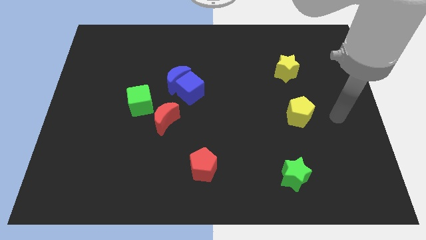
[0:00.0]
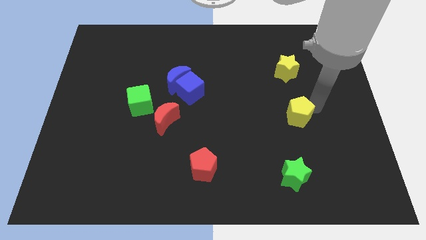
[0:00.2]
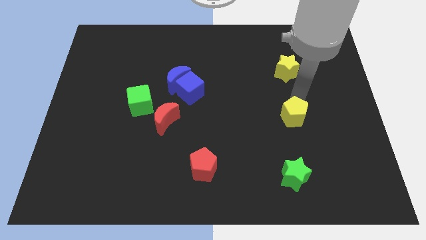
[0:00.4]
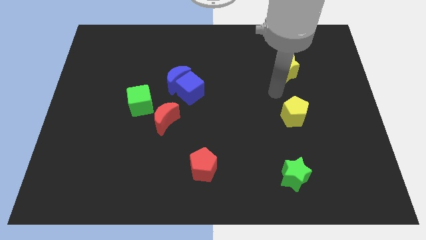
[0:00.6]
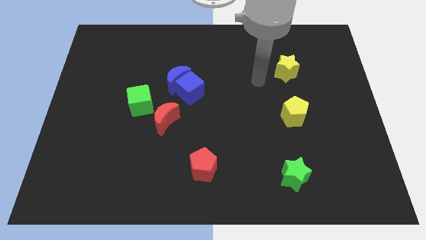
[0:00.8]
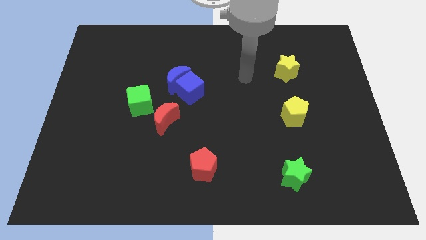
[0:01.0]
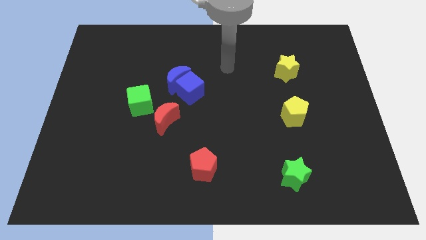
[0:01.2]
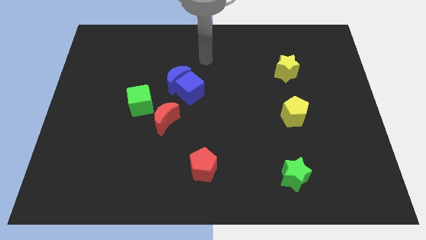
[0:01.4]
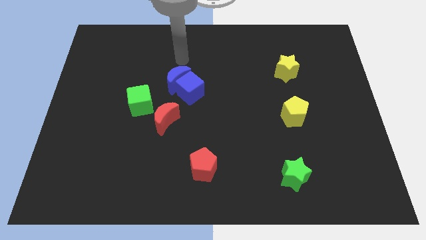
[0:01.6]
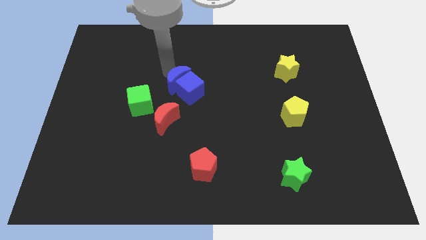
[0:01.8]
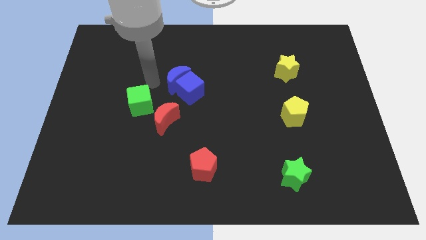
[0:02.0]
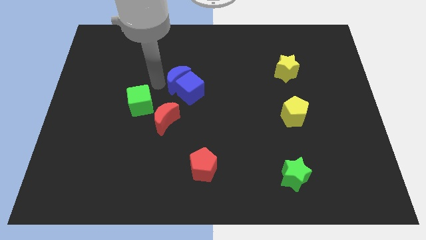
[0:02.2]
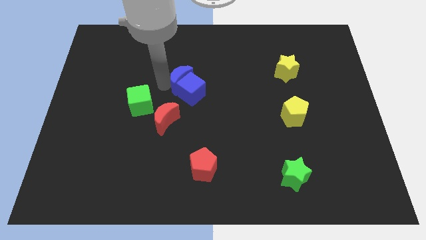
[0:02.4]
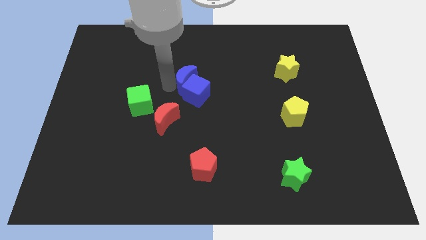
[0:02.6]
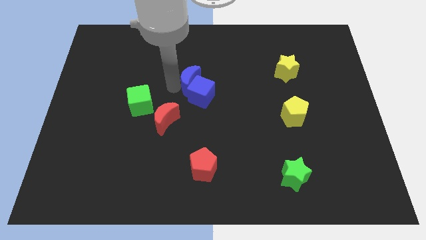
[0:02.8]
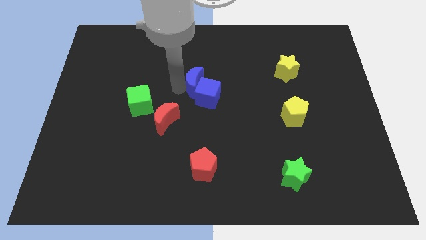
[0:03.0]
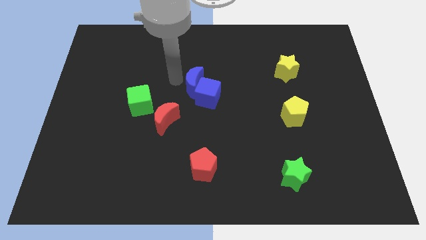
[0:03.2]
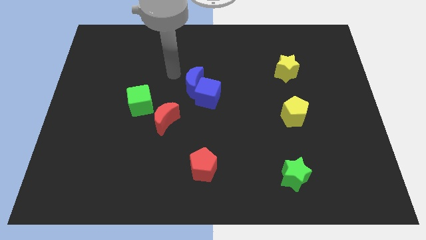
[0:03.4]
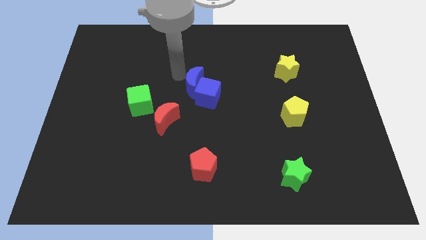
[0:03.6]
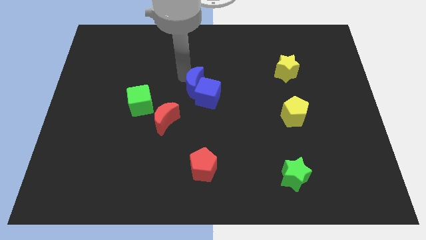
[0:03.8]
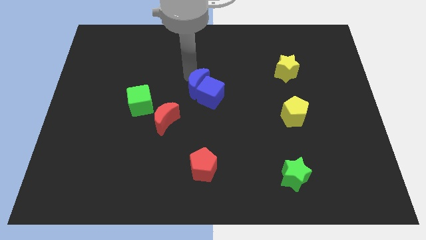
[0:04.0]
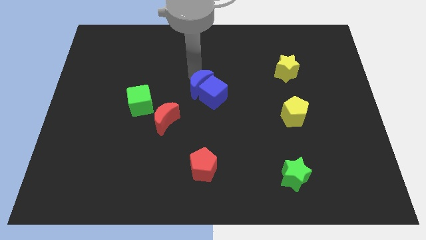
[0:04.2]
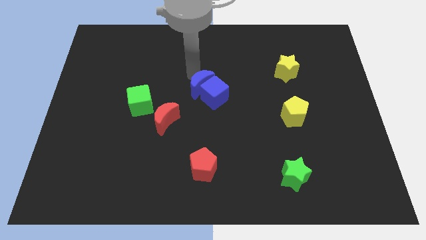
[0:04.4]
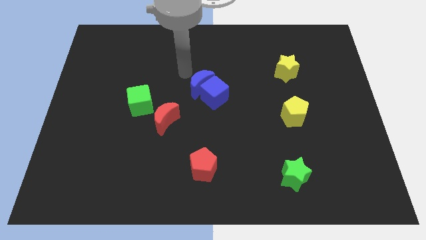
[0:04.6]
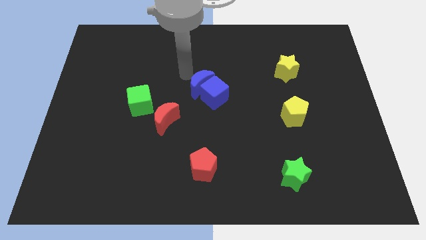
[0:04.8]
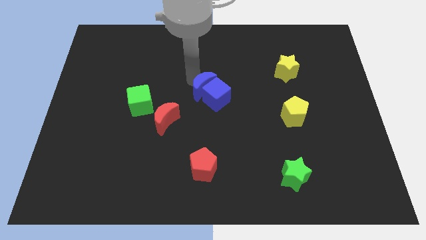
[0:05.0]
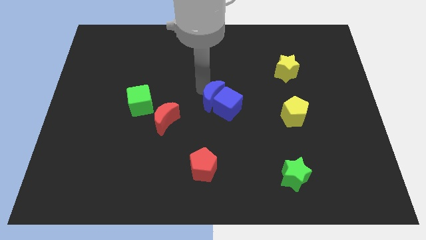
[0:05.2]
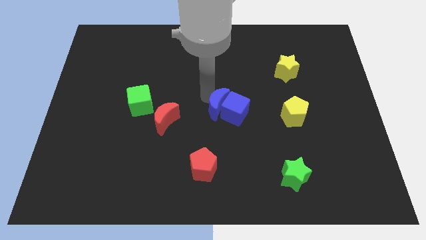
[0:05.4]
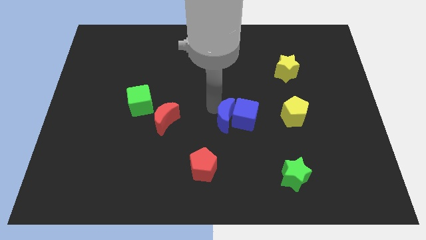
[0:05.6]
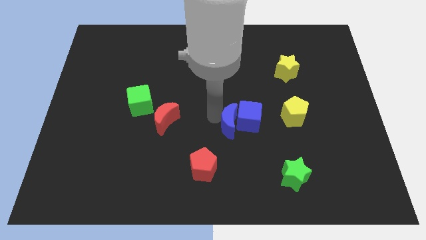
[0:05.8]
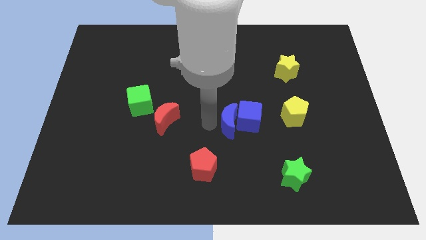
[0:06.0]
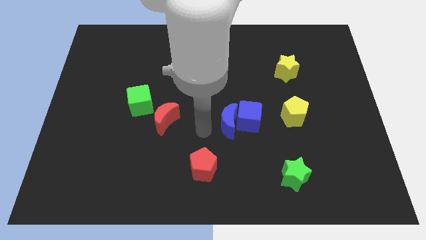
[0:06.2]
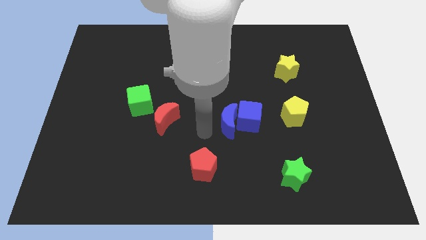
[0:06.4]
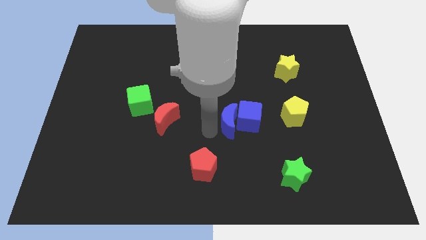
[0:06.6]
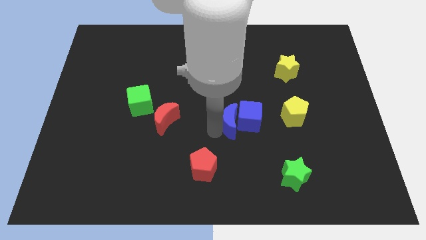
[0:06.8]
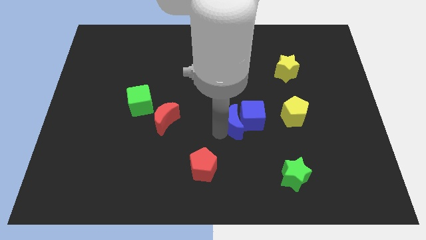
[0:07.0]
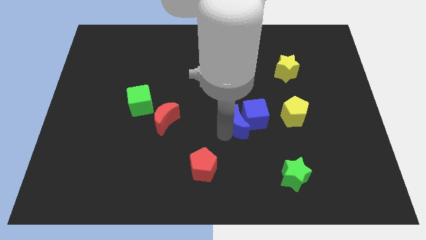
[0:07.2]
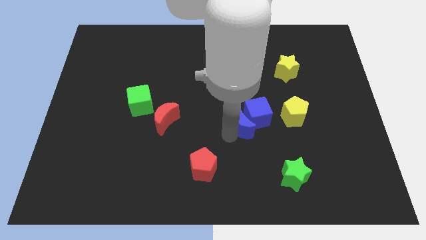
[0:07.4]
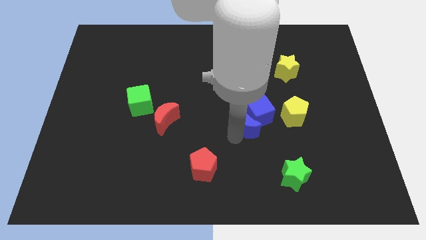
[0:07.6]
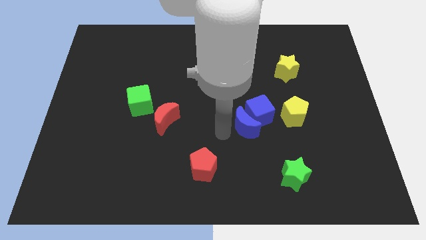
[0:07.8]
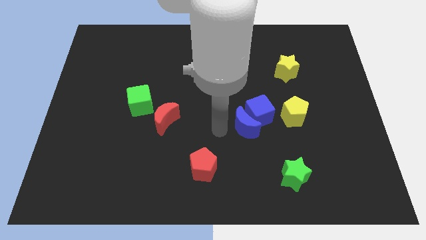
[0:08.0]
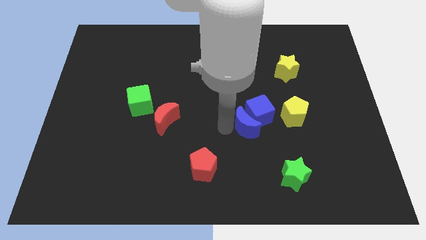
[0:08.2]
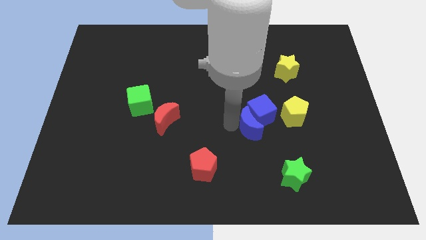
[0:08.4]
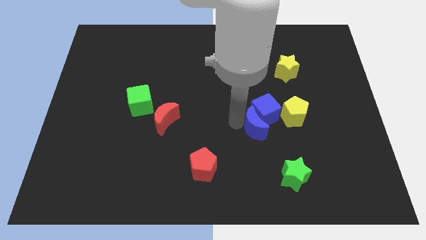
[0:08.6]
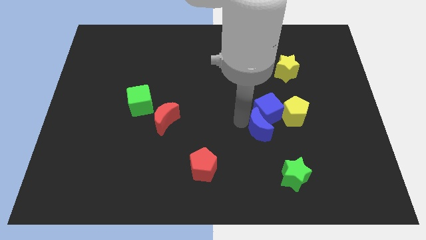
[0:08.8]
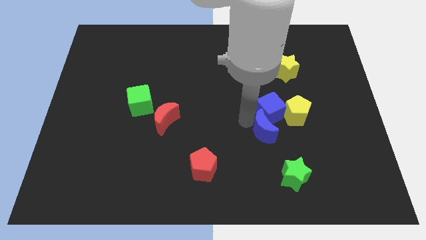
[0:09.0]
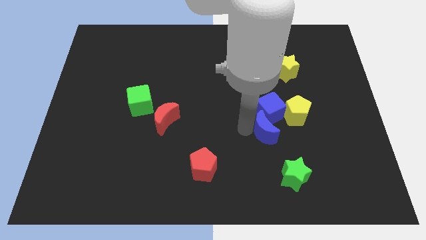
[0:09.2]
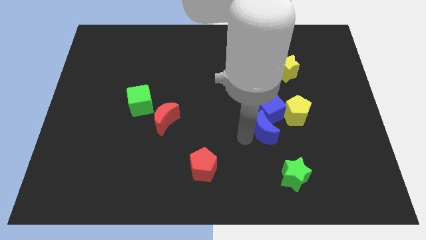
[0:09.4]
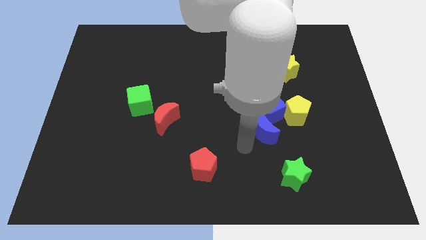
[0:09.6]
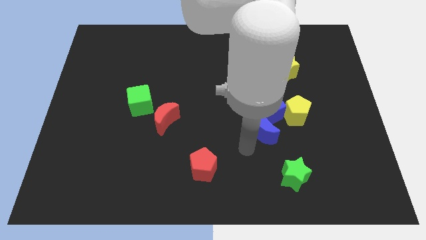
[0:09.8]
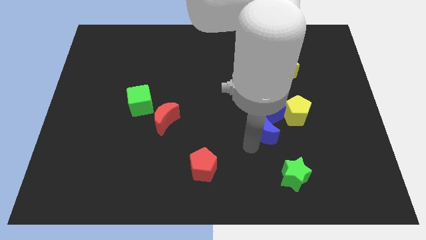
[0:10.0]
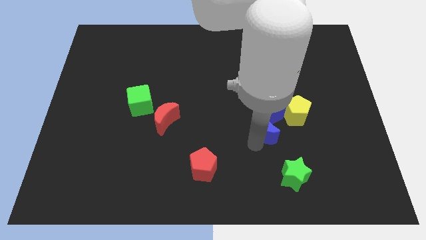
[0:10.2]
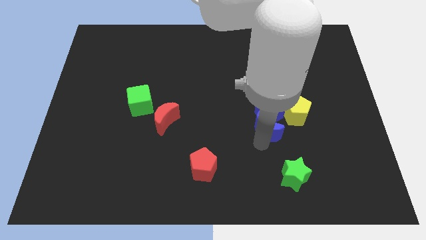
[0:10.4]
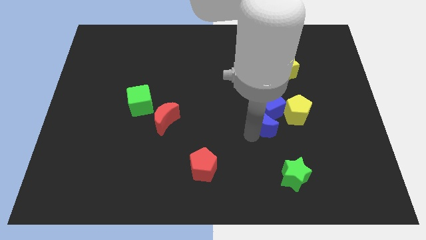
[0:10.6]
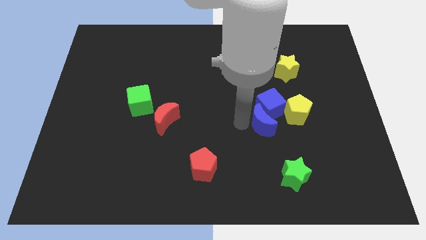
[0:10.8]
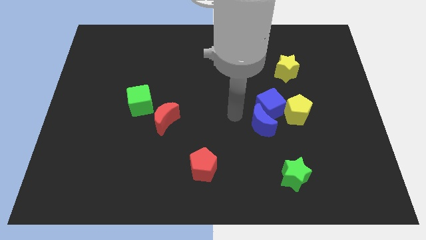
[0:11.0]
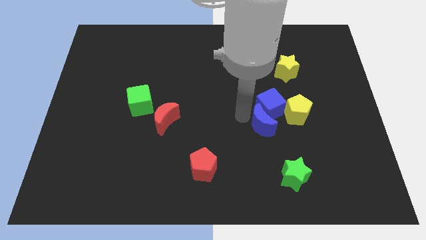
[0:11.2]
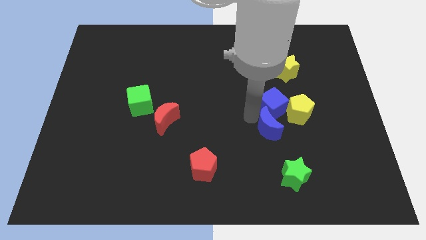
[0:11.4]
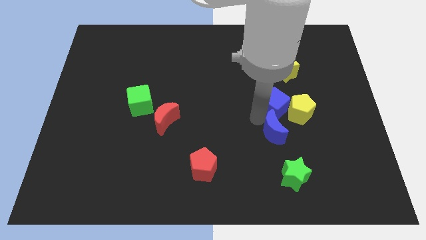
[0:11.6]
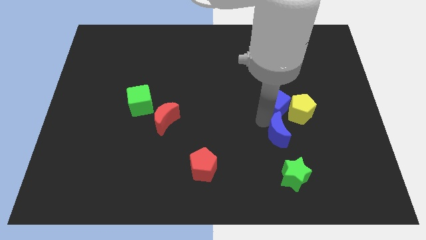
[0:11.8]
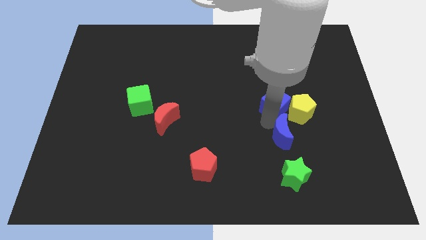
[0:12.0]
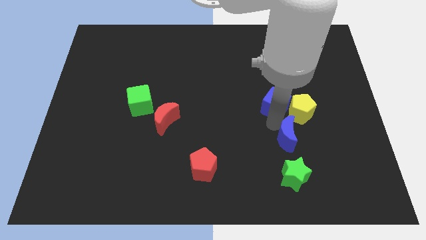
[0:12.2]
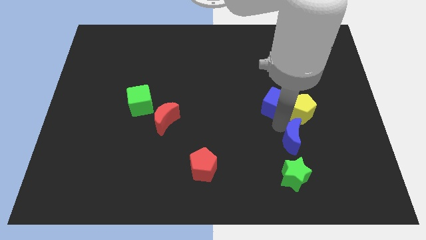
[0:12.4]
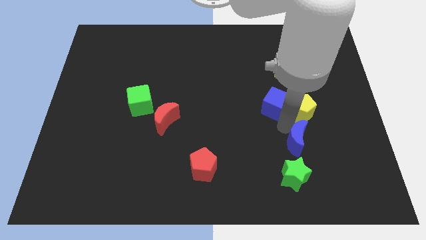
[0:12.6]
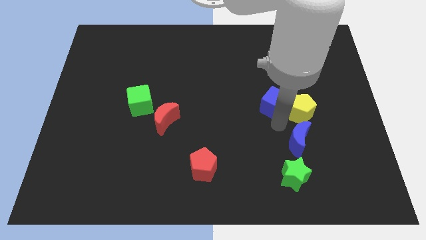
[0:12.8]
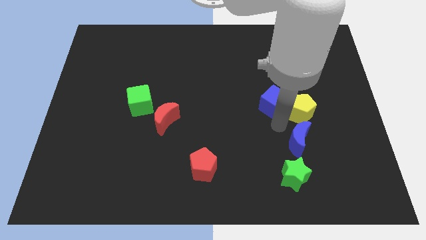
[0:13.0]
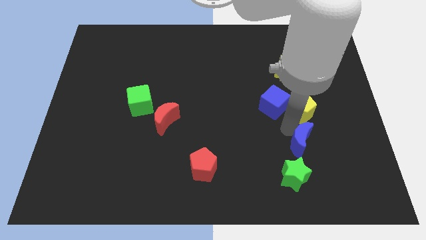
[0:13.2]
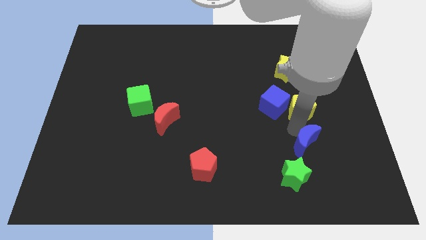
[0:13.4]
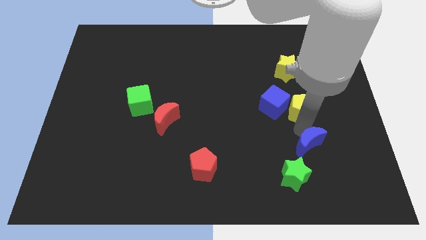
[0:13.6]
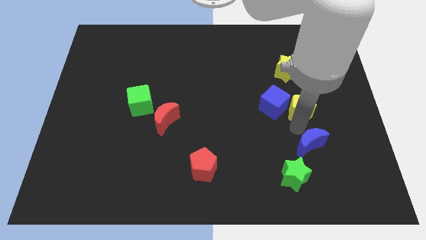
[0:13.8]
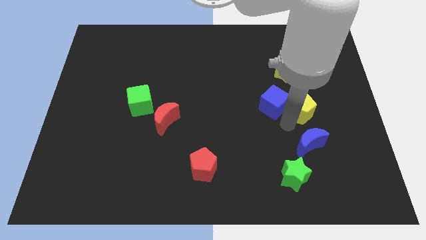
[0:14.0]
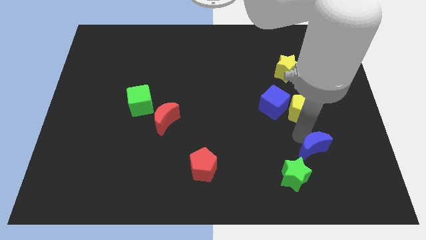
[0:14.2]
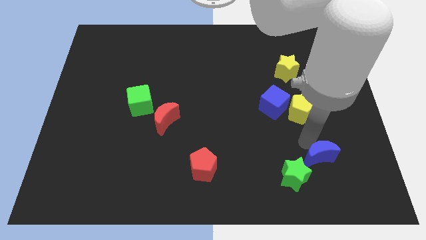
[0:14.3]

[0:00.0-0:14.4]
slide the blue moon to the right of the green star
